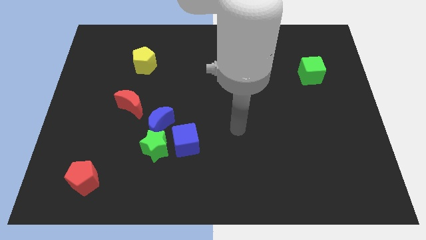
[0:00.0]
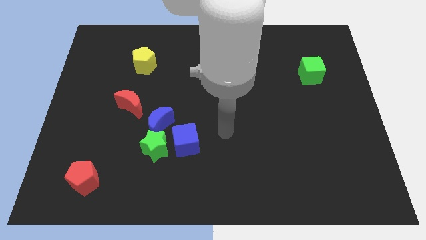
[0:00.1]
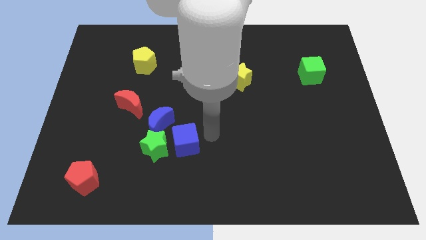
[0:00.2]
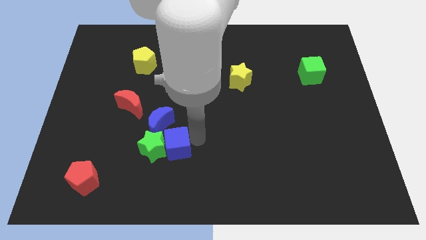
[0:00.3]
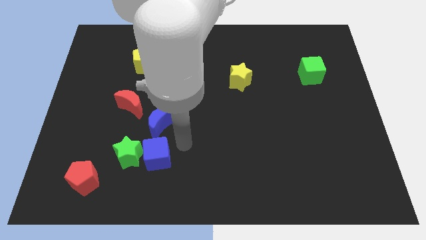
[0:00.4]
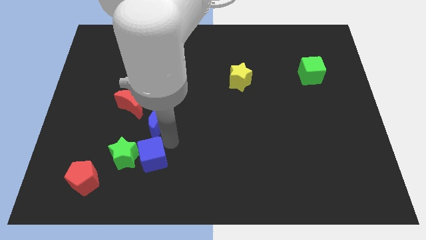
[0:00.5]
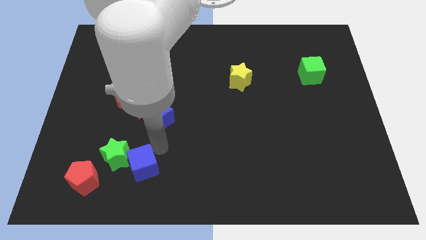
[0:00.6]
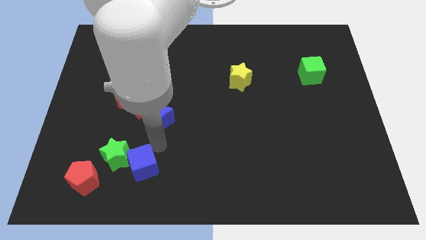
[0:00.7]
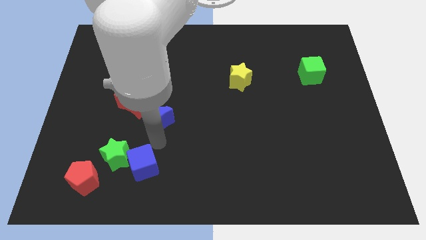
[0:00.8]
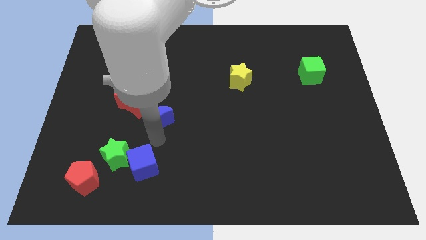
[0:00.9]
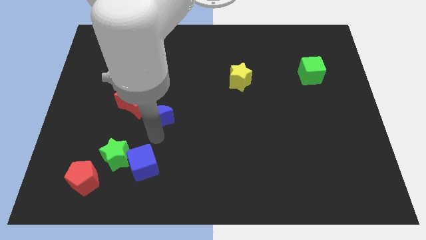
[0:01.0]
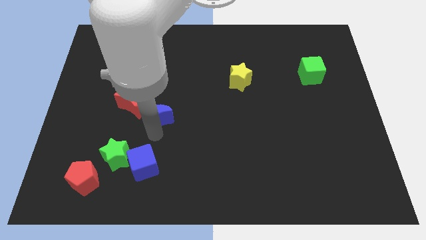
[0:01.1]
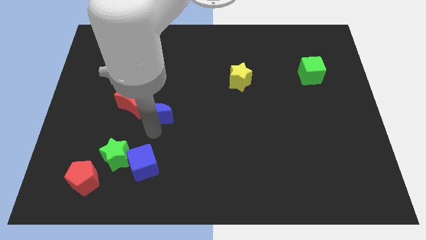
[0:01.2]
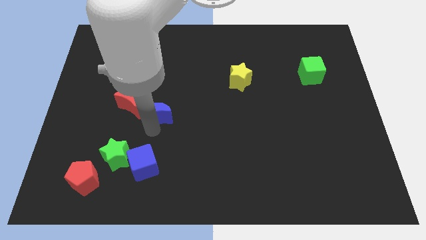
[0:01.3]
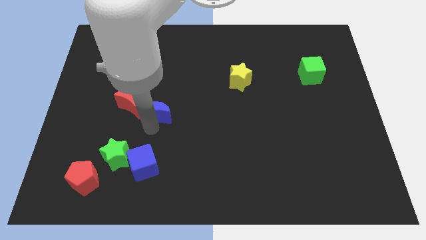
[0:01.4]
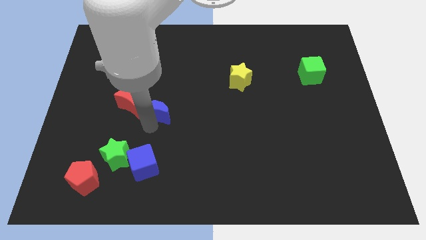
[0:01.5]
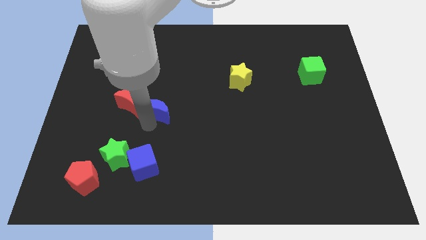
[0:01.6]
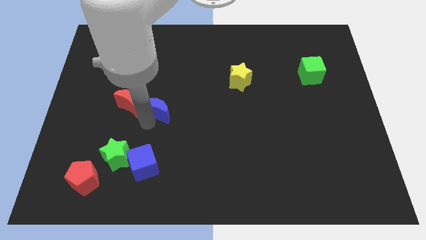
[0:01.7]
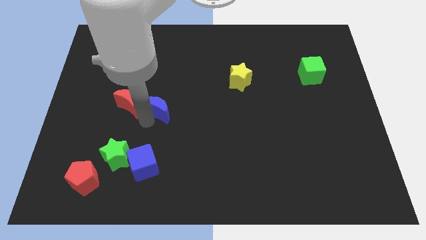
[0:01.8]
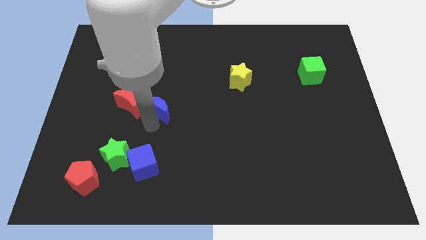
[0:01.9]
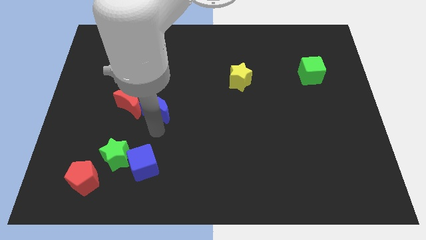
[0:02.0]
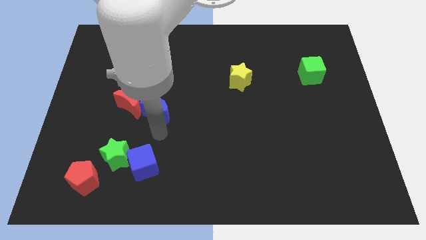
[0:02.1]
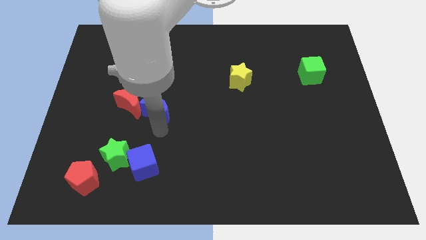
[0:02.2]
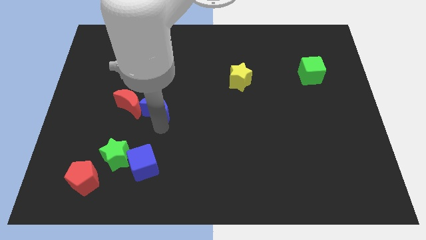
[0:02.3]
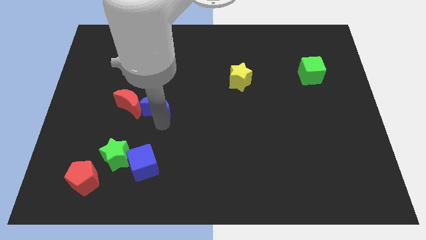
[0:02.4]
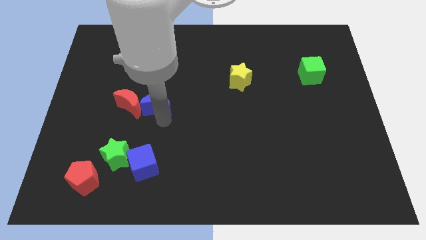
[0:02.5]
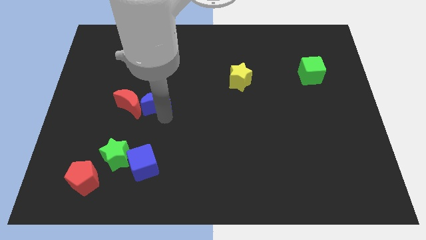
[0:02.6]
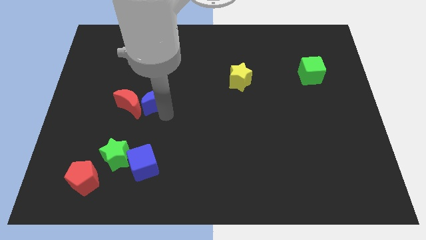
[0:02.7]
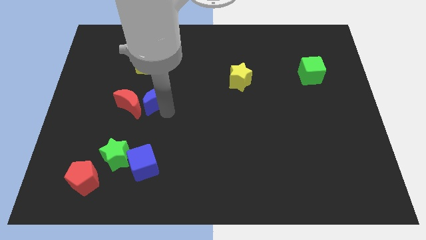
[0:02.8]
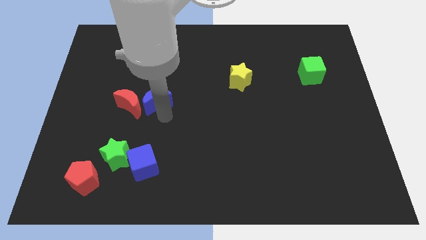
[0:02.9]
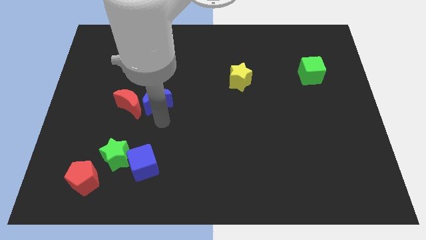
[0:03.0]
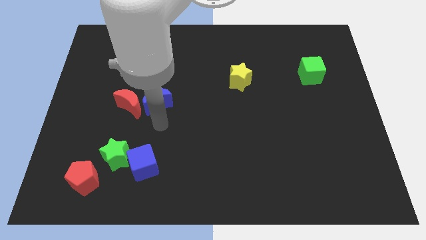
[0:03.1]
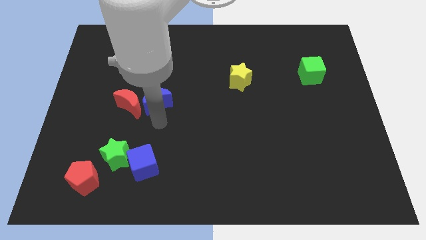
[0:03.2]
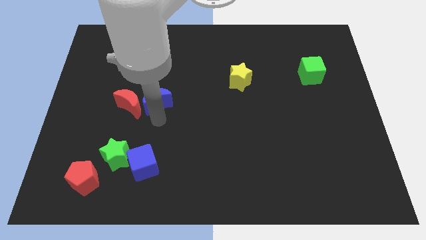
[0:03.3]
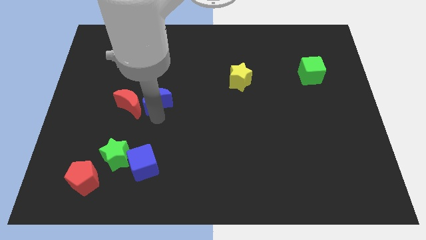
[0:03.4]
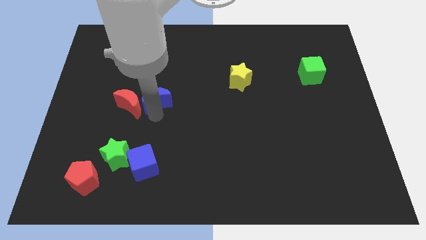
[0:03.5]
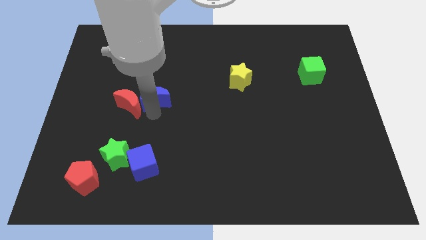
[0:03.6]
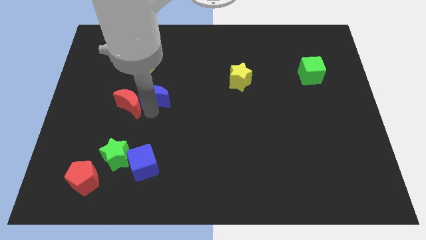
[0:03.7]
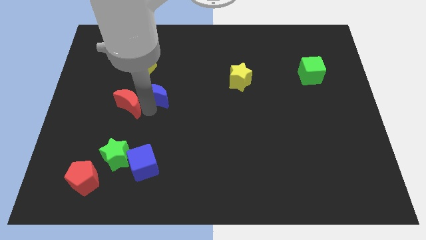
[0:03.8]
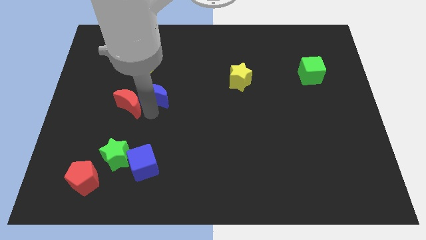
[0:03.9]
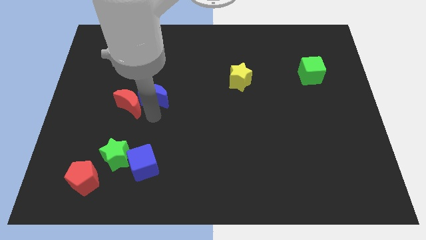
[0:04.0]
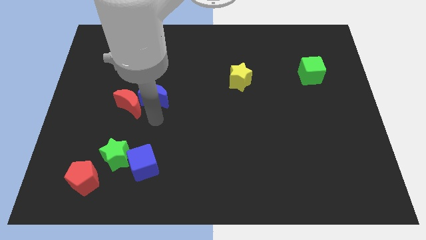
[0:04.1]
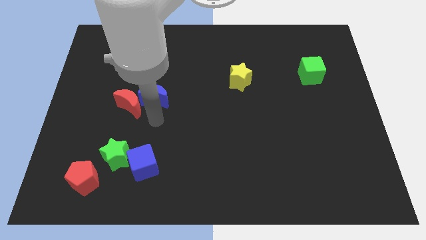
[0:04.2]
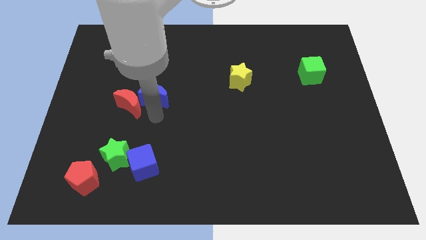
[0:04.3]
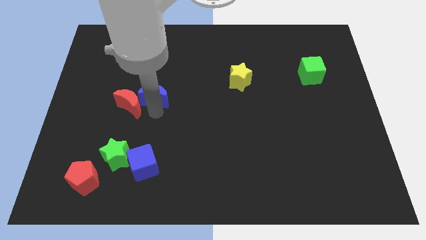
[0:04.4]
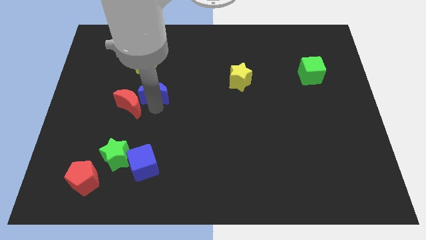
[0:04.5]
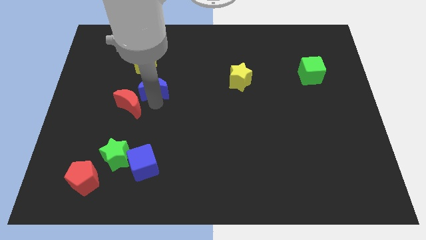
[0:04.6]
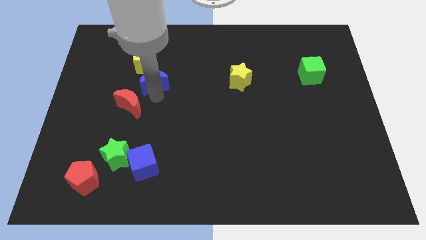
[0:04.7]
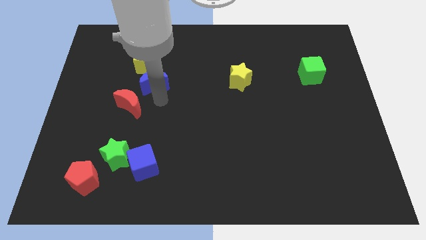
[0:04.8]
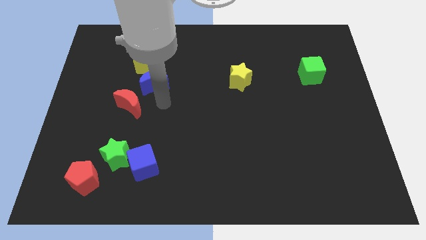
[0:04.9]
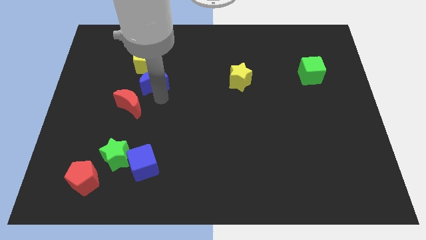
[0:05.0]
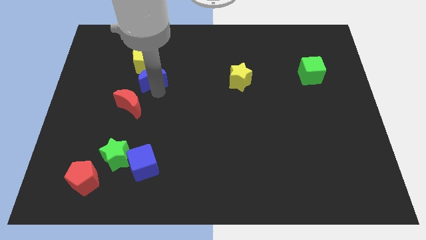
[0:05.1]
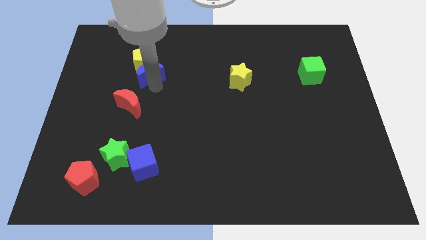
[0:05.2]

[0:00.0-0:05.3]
slide the blue moon close to the yellow pentagon

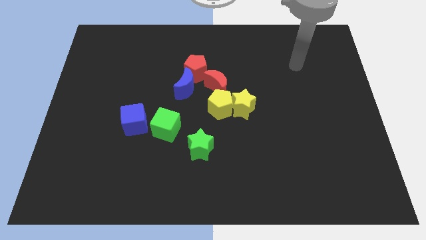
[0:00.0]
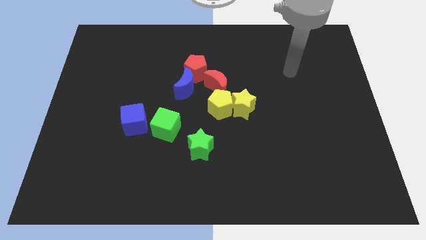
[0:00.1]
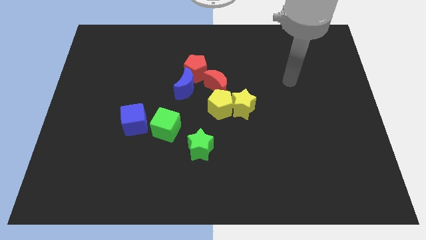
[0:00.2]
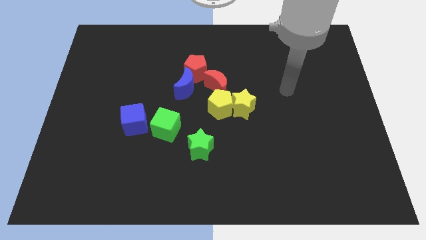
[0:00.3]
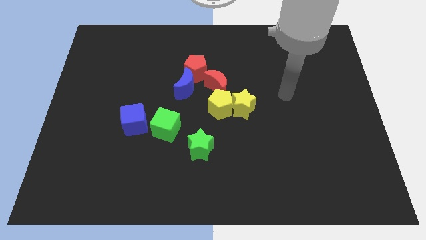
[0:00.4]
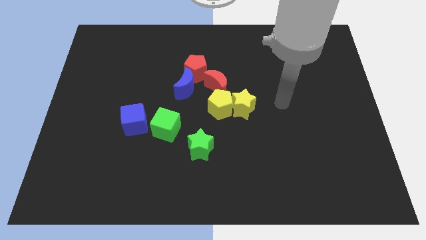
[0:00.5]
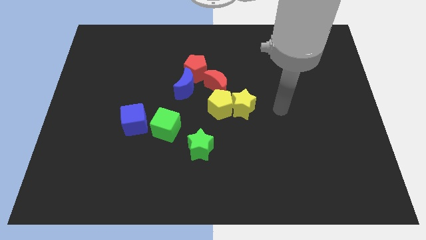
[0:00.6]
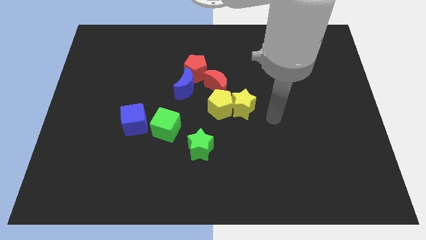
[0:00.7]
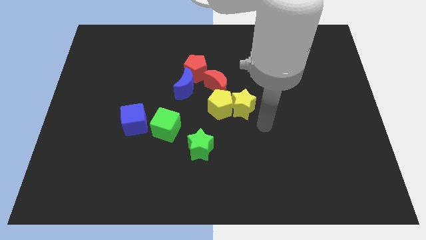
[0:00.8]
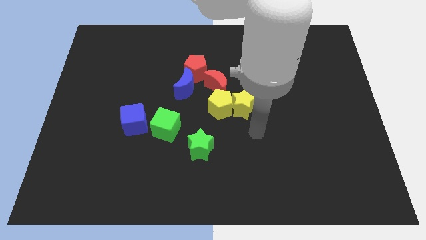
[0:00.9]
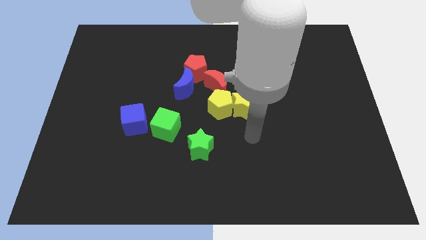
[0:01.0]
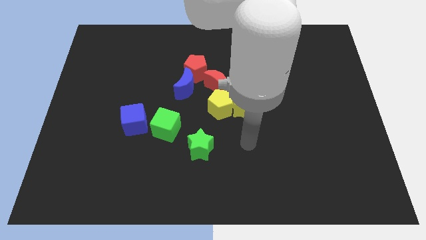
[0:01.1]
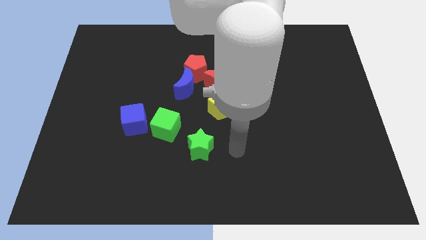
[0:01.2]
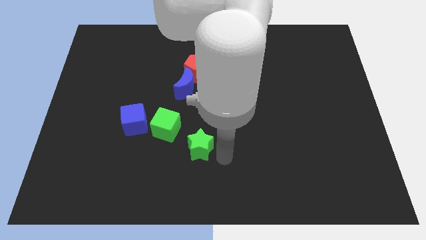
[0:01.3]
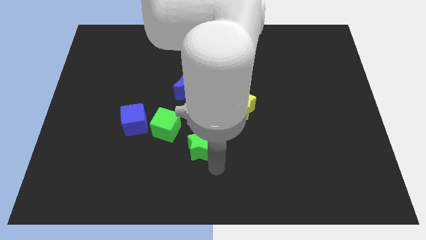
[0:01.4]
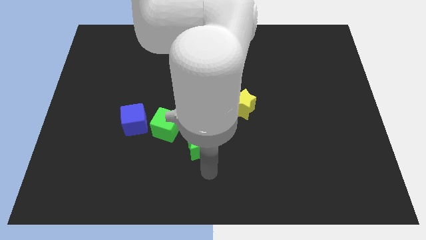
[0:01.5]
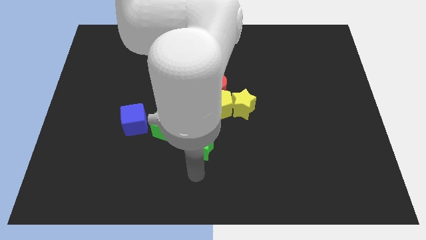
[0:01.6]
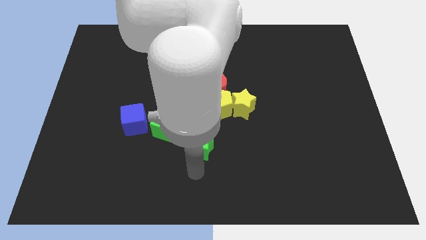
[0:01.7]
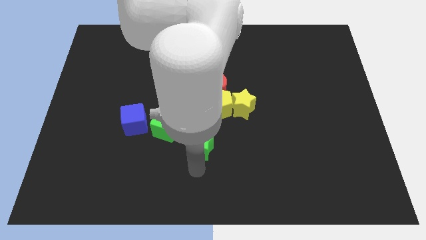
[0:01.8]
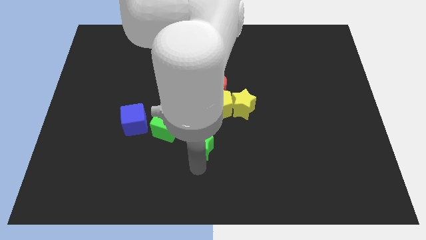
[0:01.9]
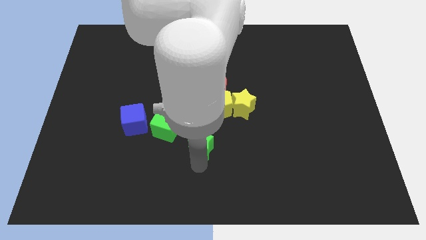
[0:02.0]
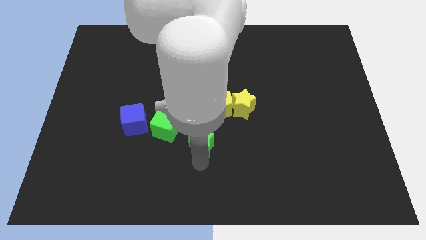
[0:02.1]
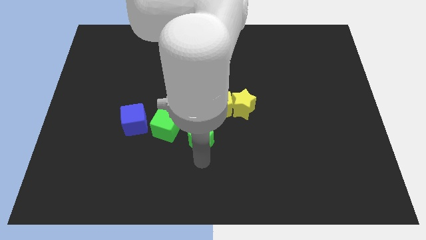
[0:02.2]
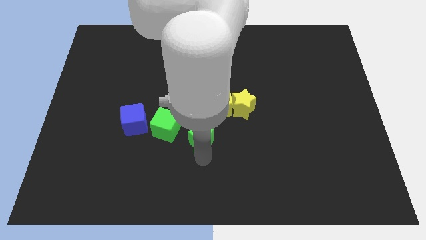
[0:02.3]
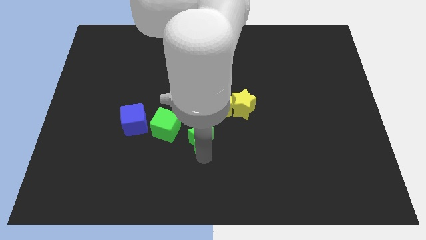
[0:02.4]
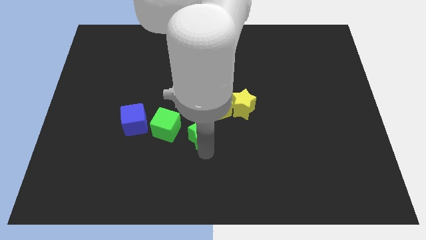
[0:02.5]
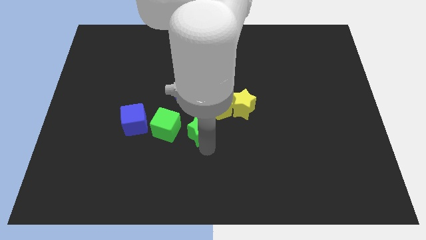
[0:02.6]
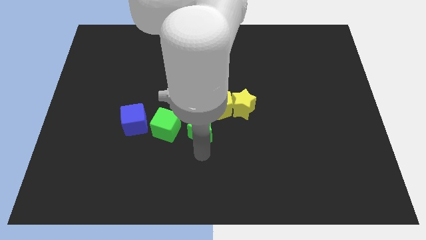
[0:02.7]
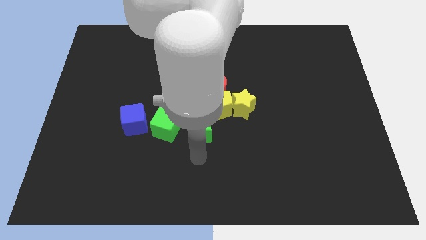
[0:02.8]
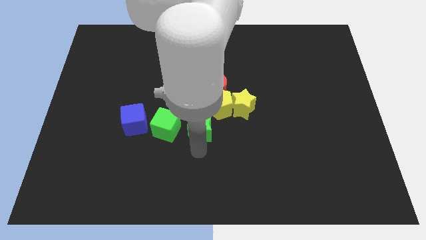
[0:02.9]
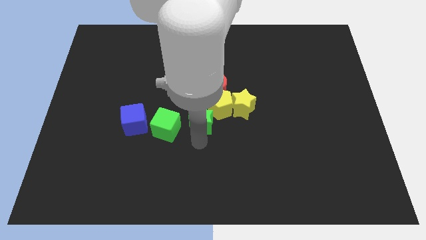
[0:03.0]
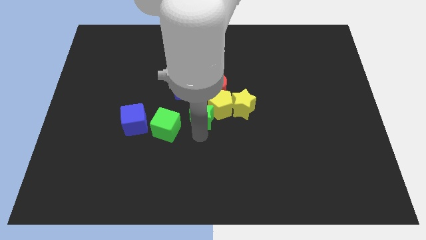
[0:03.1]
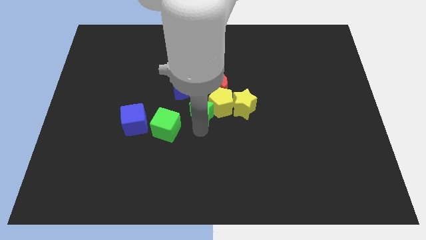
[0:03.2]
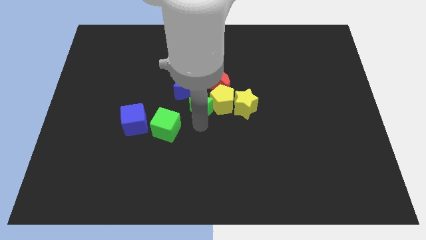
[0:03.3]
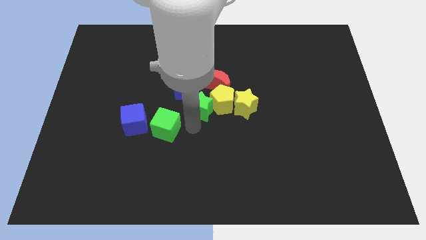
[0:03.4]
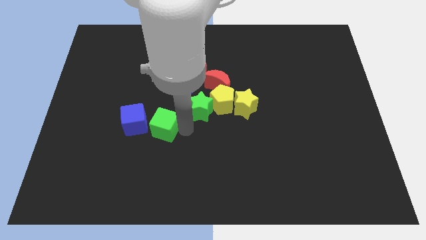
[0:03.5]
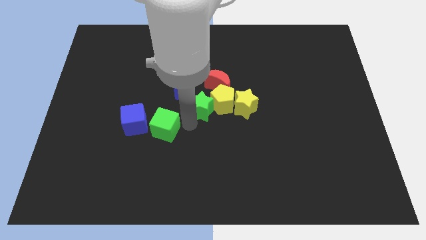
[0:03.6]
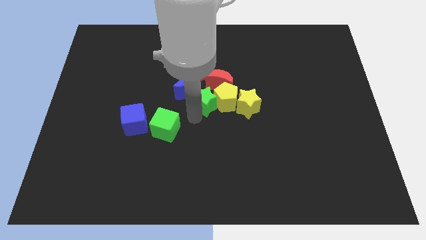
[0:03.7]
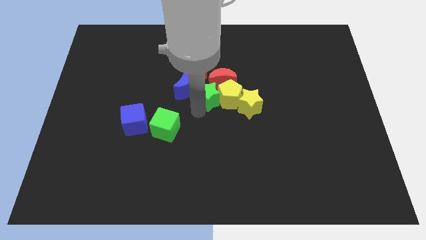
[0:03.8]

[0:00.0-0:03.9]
put the green star towards the red moon
